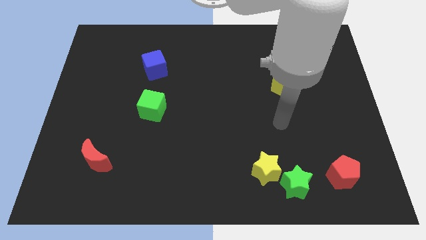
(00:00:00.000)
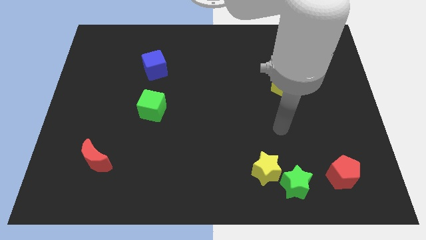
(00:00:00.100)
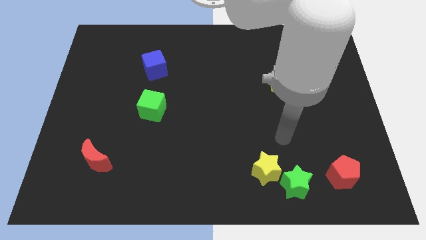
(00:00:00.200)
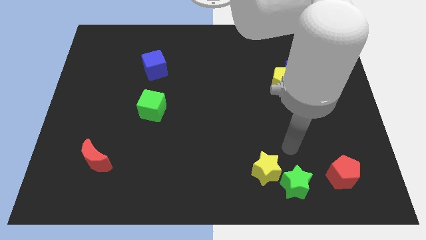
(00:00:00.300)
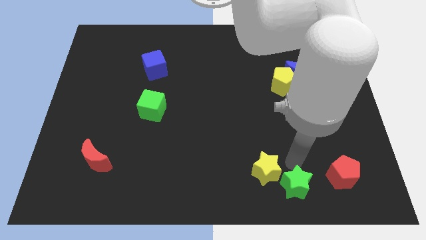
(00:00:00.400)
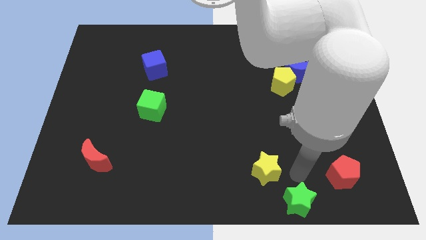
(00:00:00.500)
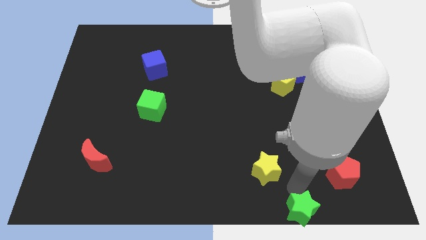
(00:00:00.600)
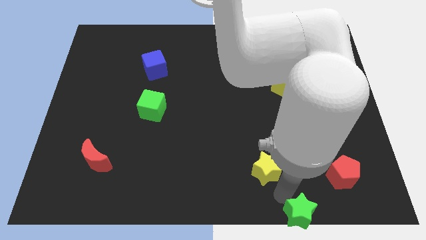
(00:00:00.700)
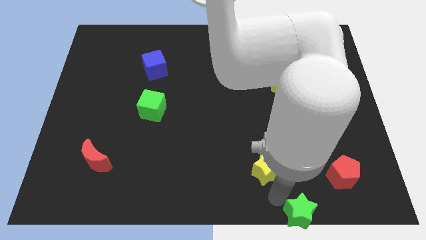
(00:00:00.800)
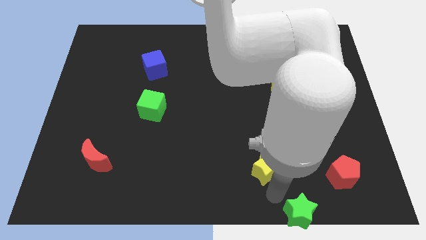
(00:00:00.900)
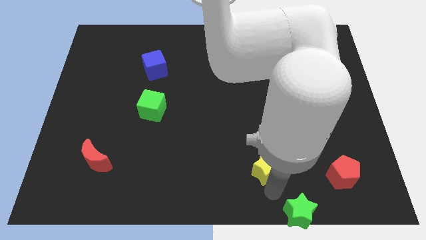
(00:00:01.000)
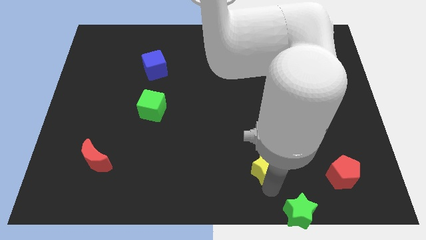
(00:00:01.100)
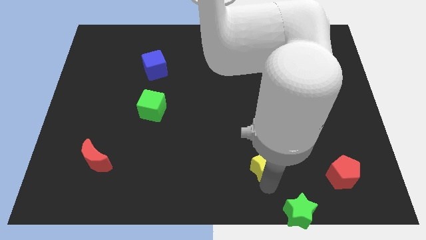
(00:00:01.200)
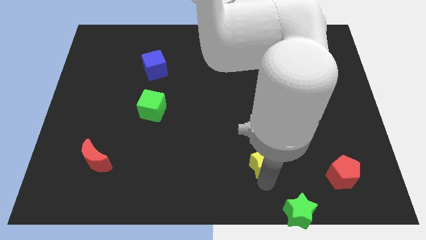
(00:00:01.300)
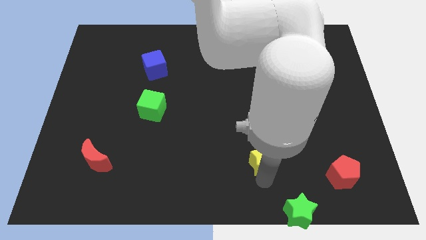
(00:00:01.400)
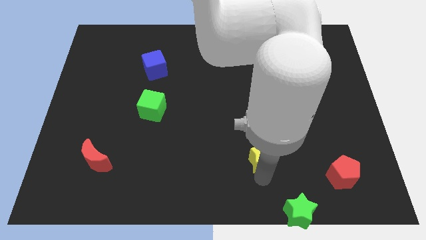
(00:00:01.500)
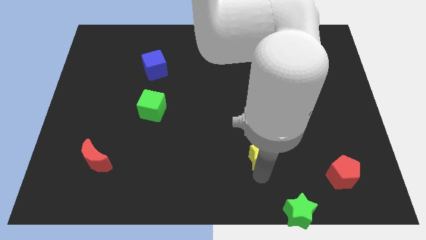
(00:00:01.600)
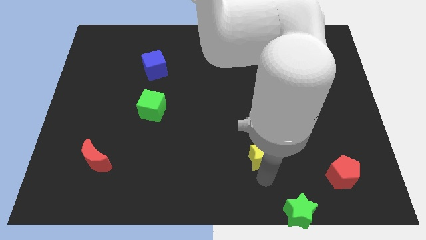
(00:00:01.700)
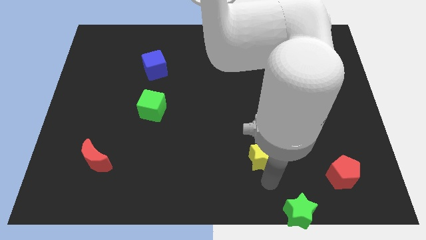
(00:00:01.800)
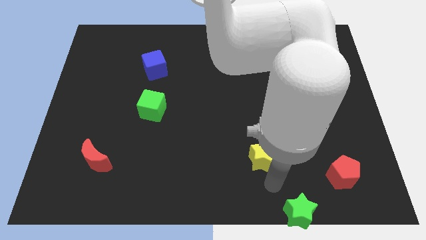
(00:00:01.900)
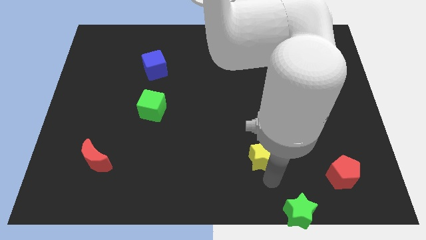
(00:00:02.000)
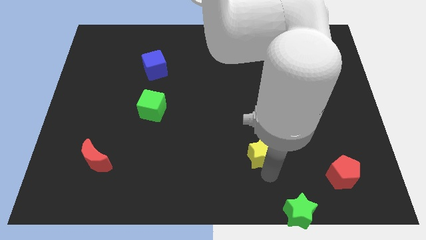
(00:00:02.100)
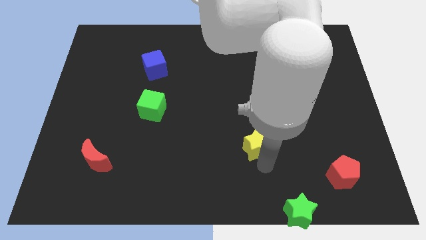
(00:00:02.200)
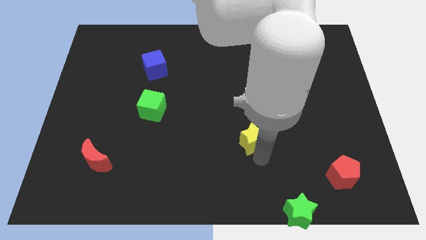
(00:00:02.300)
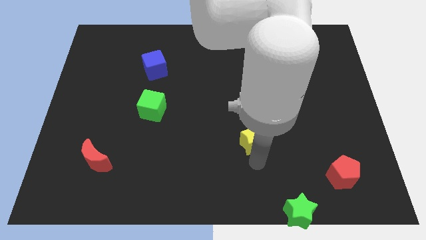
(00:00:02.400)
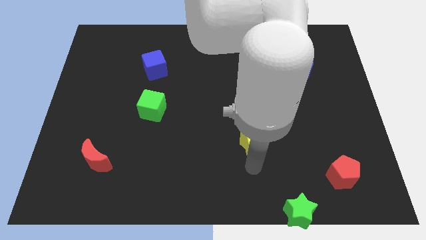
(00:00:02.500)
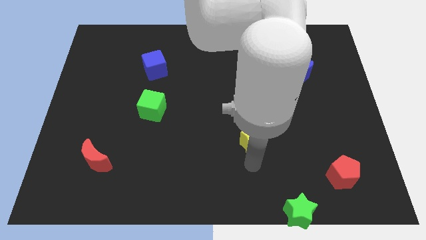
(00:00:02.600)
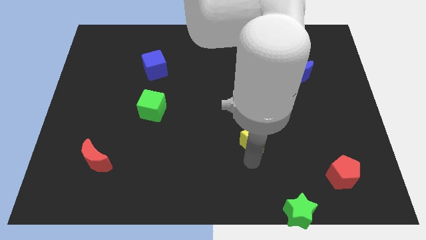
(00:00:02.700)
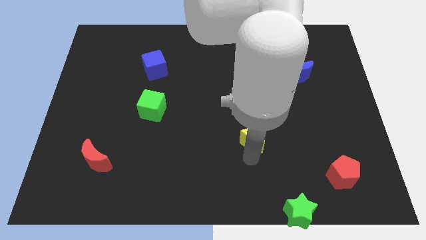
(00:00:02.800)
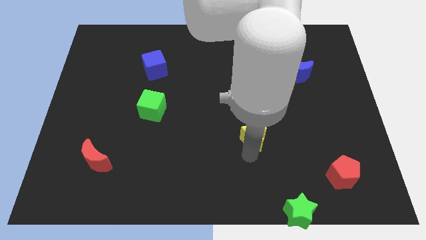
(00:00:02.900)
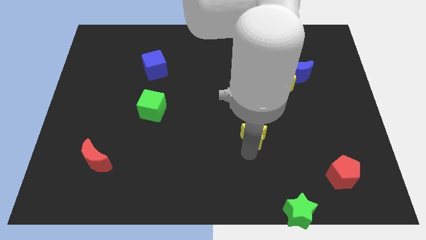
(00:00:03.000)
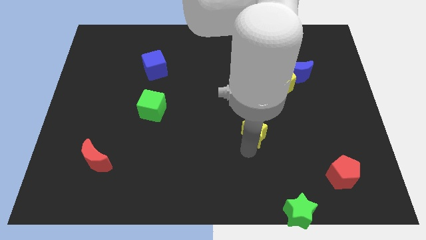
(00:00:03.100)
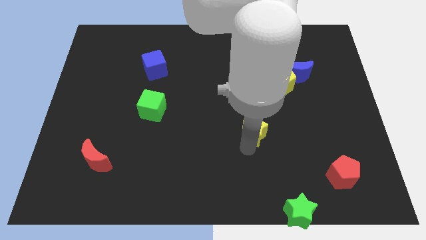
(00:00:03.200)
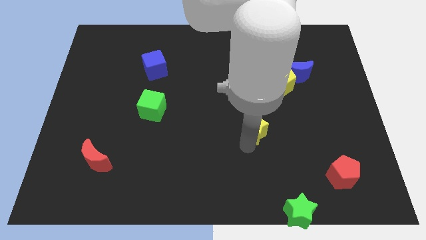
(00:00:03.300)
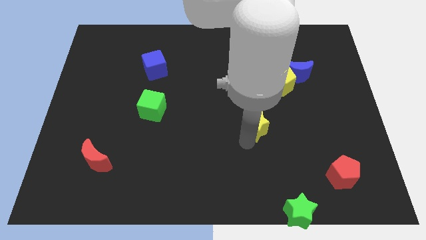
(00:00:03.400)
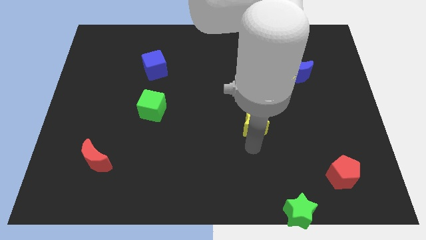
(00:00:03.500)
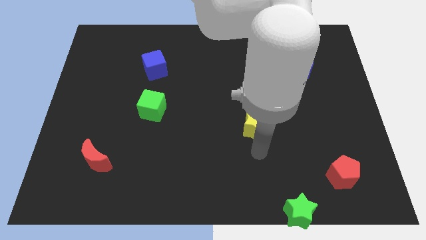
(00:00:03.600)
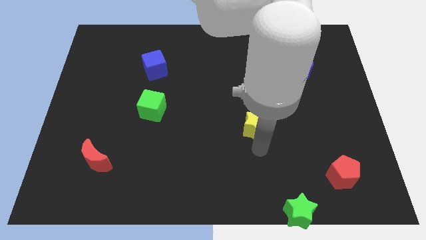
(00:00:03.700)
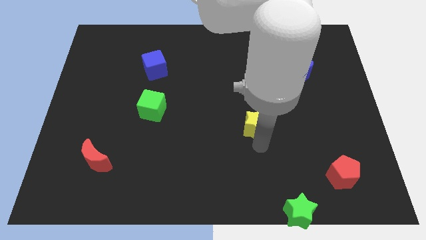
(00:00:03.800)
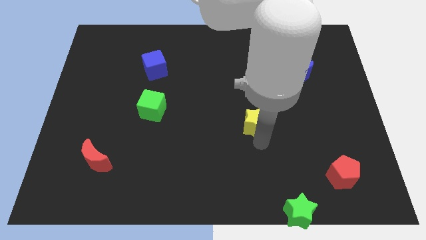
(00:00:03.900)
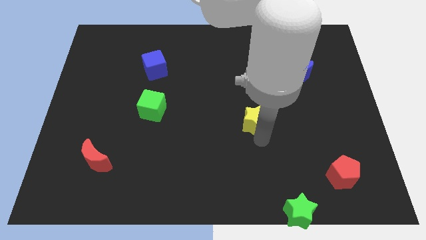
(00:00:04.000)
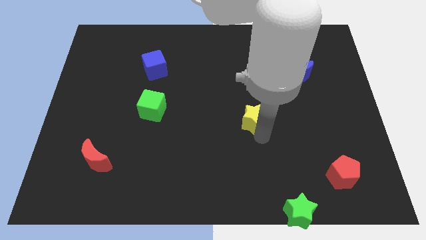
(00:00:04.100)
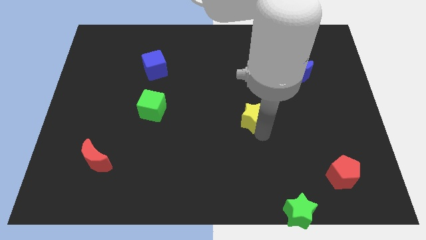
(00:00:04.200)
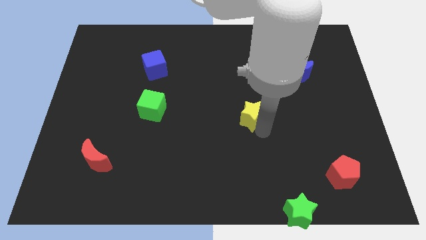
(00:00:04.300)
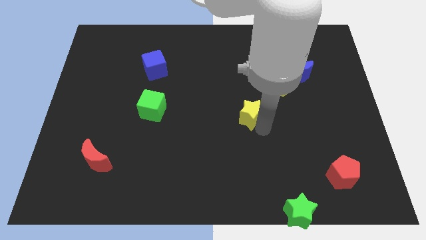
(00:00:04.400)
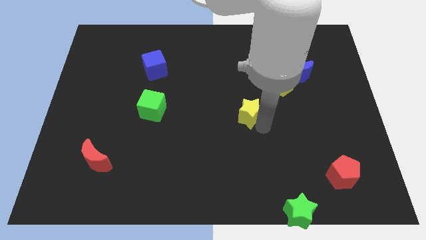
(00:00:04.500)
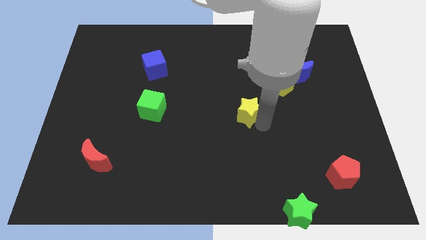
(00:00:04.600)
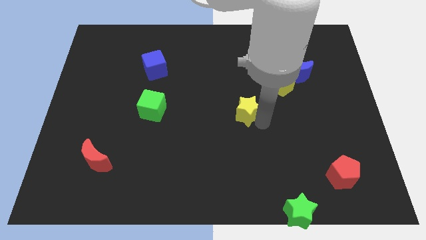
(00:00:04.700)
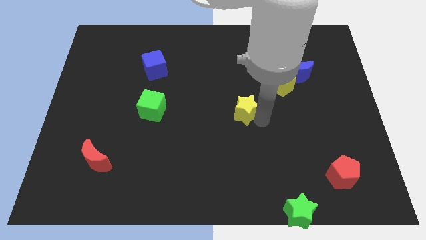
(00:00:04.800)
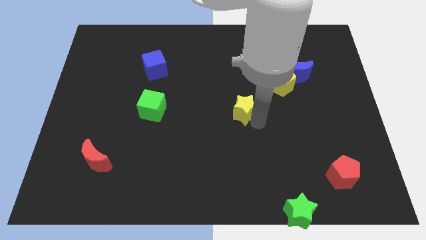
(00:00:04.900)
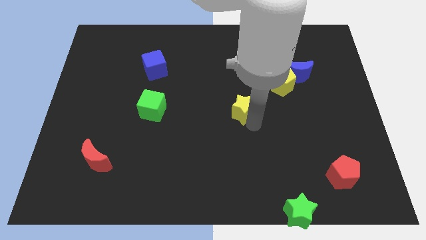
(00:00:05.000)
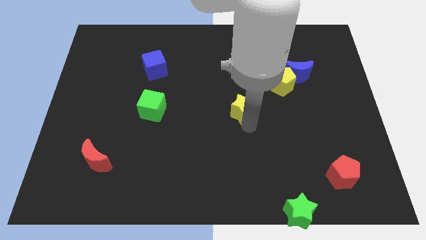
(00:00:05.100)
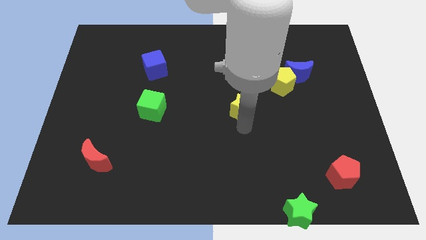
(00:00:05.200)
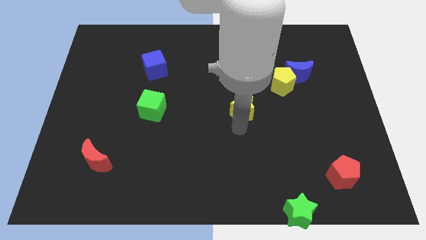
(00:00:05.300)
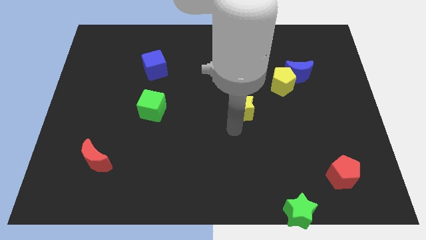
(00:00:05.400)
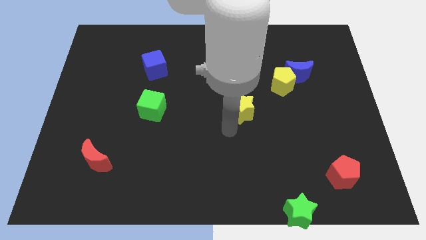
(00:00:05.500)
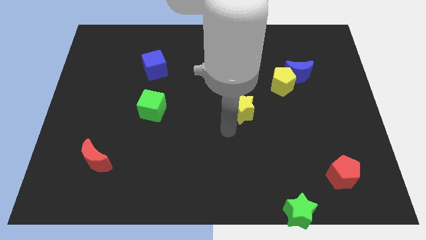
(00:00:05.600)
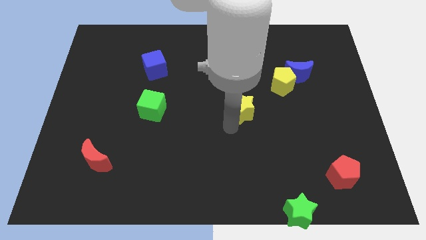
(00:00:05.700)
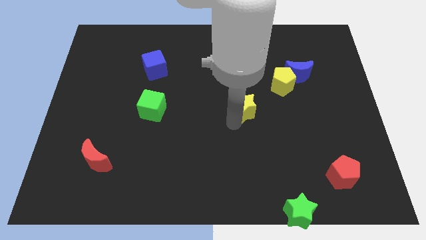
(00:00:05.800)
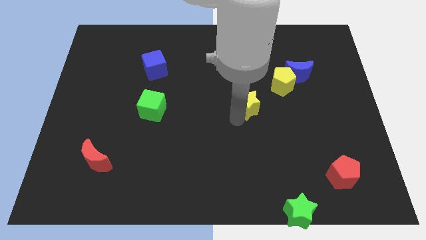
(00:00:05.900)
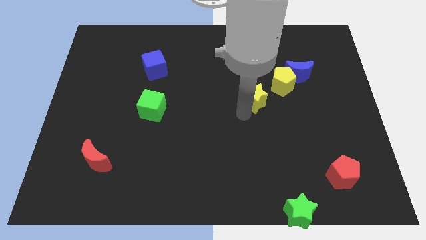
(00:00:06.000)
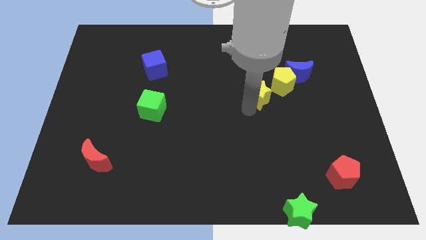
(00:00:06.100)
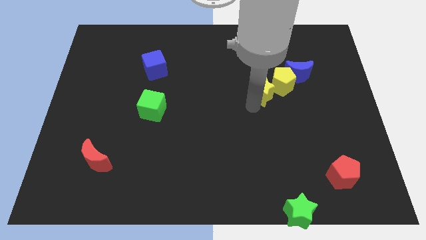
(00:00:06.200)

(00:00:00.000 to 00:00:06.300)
move the yellow star upwards

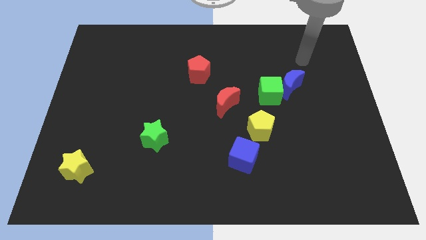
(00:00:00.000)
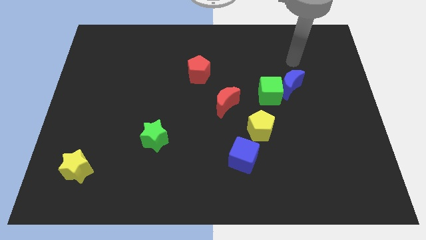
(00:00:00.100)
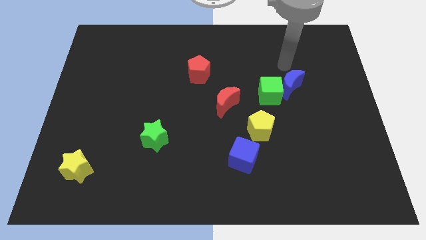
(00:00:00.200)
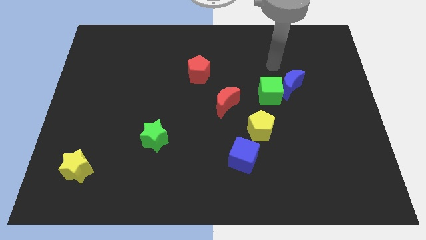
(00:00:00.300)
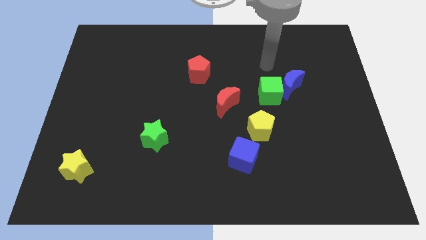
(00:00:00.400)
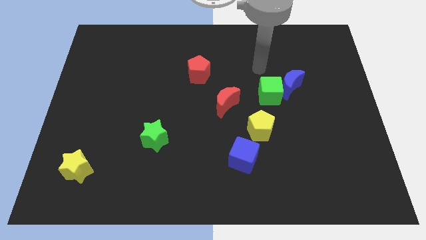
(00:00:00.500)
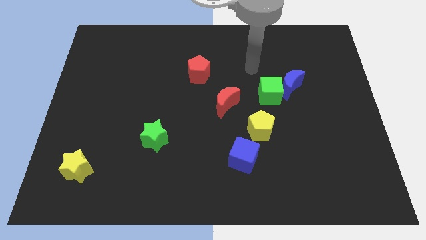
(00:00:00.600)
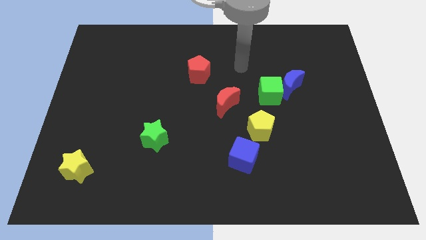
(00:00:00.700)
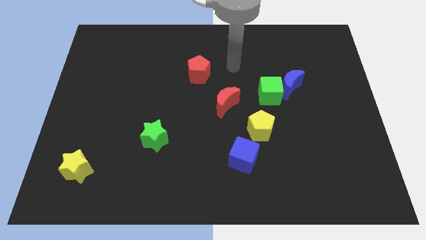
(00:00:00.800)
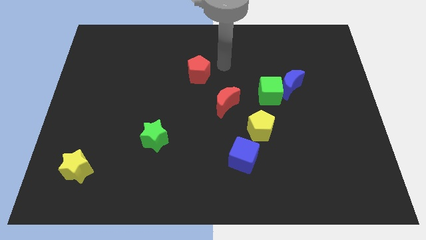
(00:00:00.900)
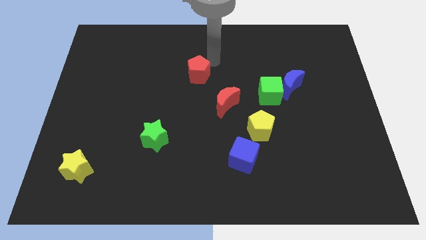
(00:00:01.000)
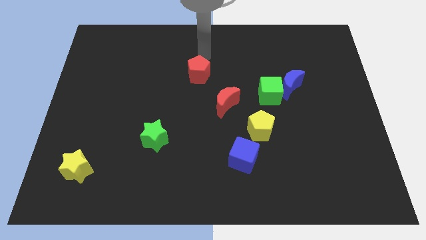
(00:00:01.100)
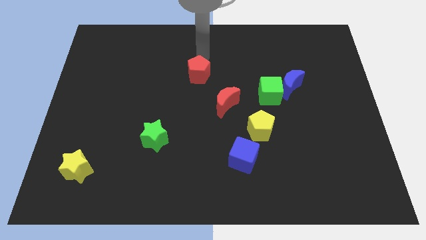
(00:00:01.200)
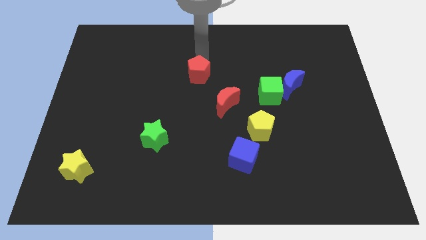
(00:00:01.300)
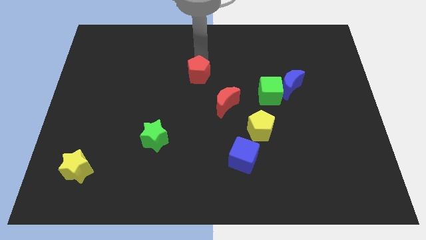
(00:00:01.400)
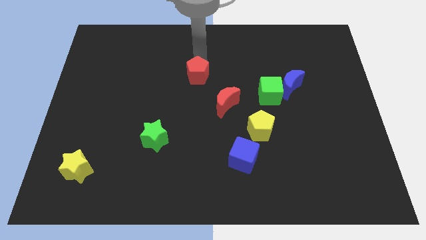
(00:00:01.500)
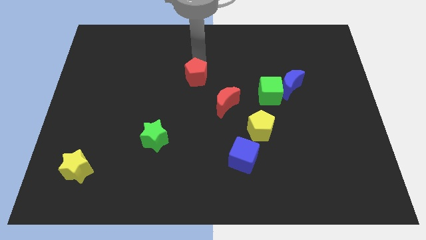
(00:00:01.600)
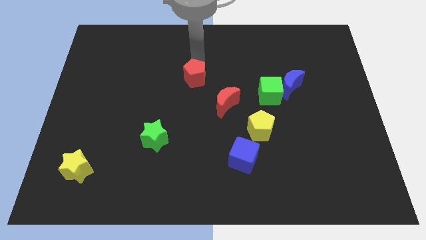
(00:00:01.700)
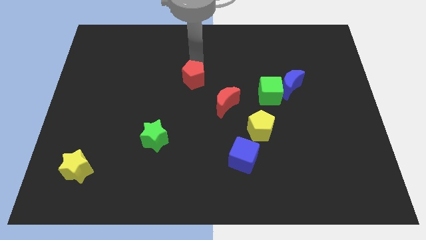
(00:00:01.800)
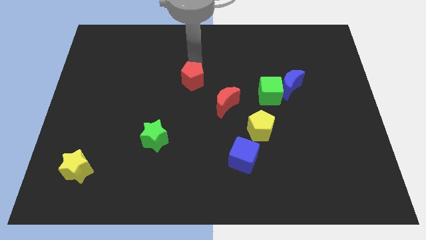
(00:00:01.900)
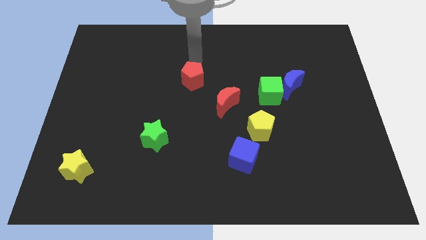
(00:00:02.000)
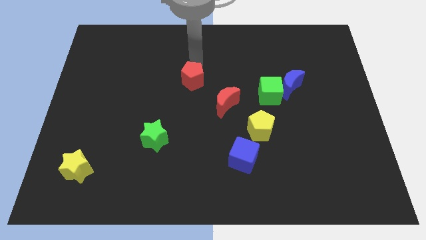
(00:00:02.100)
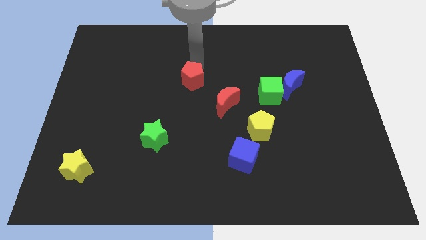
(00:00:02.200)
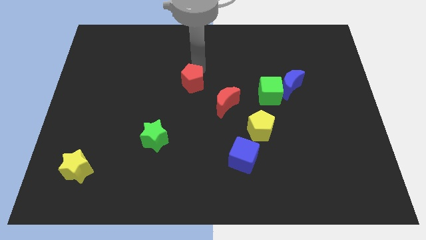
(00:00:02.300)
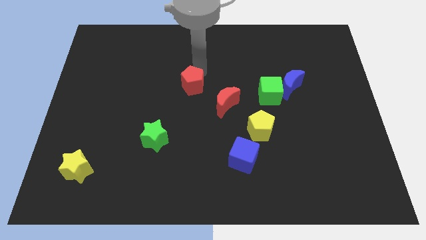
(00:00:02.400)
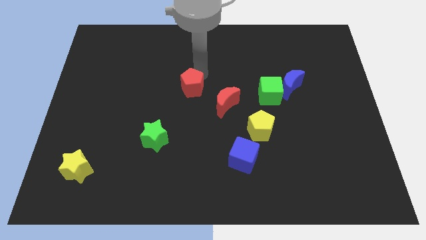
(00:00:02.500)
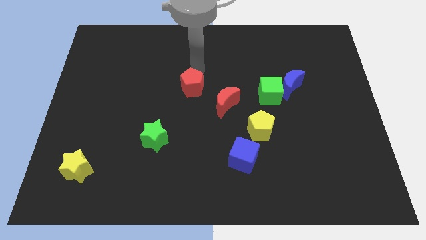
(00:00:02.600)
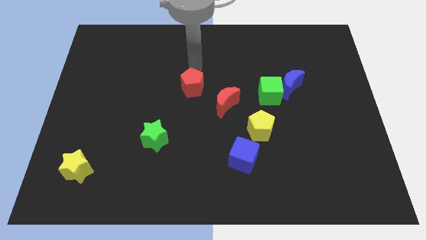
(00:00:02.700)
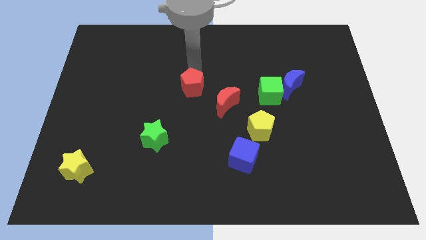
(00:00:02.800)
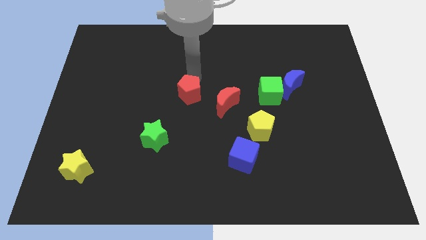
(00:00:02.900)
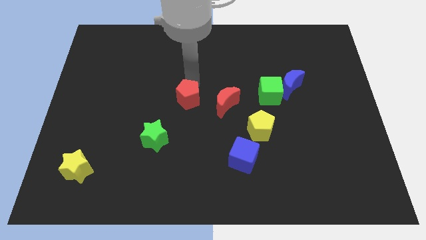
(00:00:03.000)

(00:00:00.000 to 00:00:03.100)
slightly push the red pentagon down
